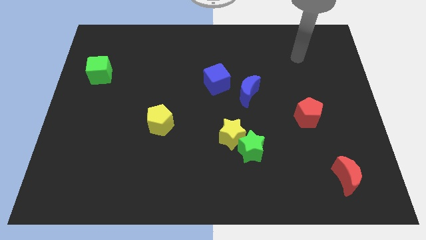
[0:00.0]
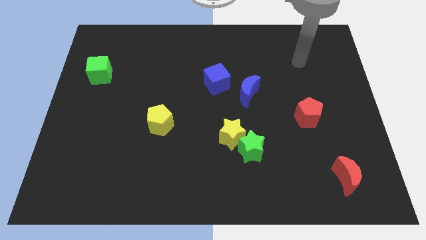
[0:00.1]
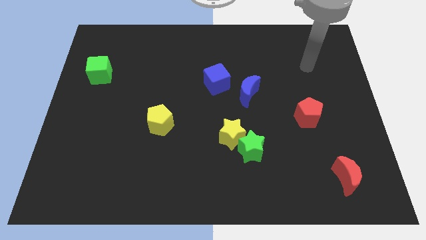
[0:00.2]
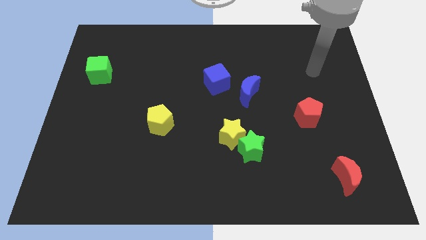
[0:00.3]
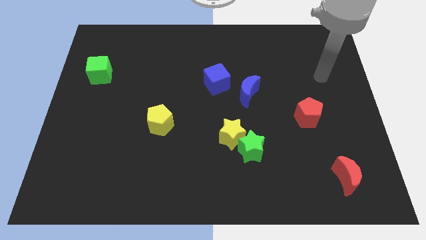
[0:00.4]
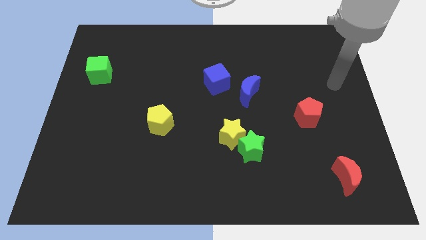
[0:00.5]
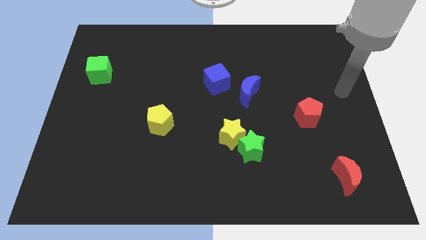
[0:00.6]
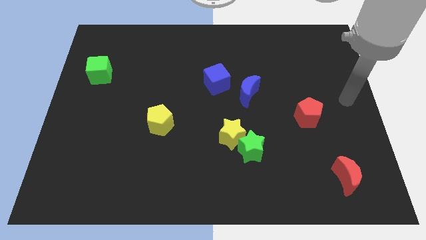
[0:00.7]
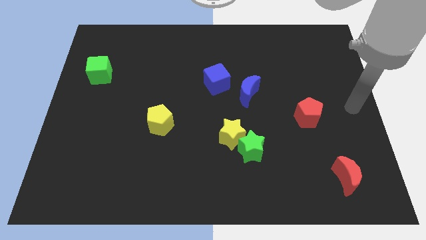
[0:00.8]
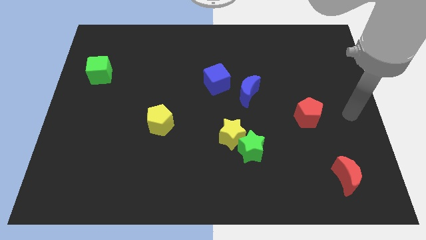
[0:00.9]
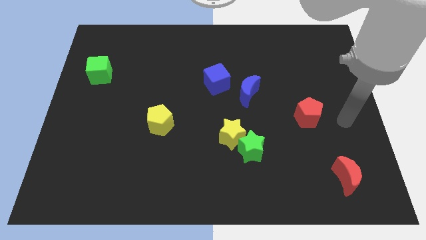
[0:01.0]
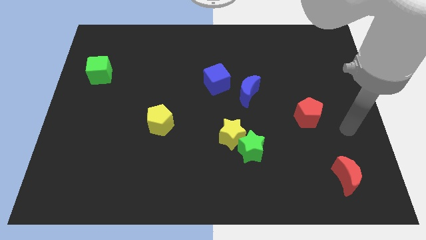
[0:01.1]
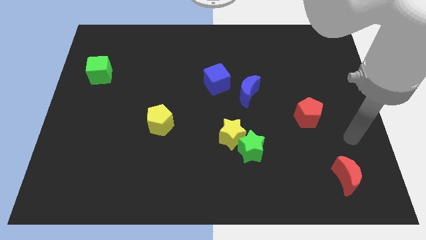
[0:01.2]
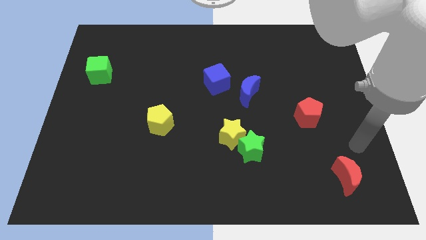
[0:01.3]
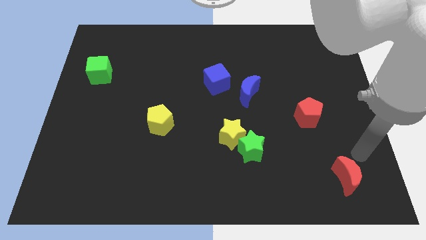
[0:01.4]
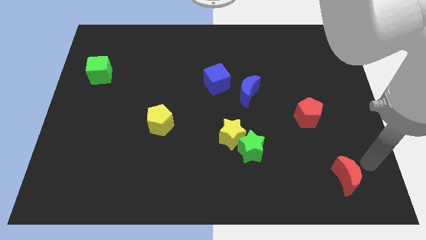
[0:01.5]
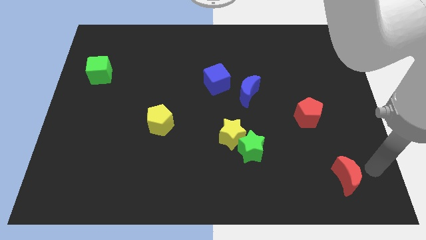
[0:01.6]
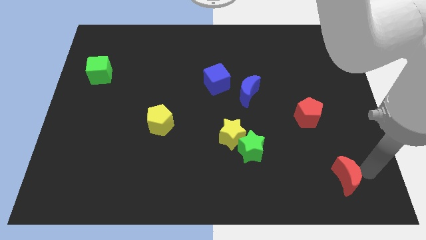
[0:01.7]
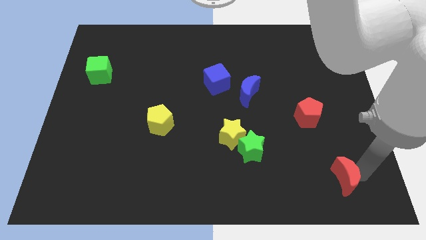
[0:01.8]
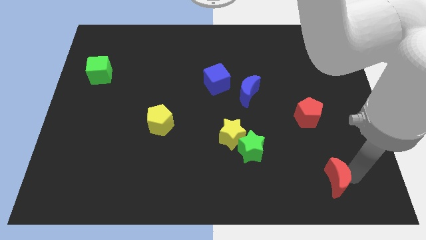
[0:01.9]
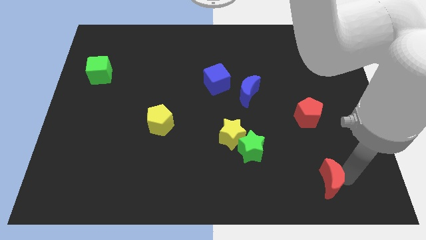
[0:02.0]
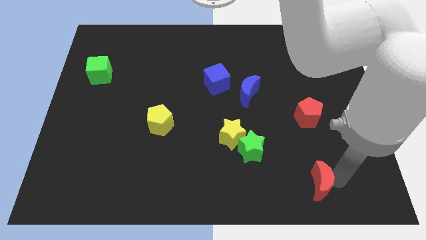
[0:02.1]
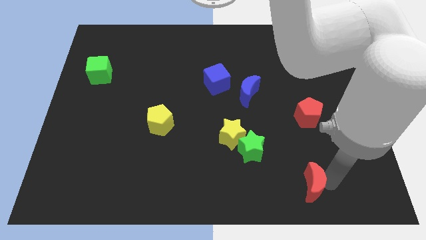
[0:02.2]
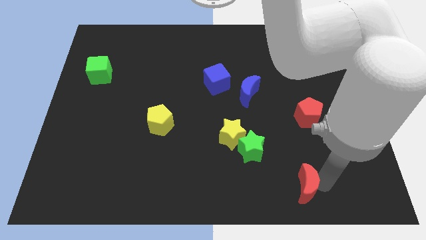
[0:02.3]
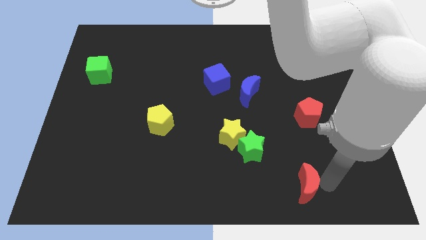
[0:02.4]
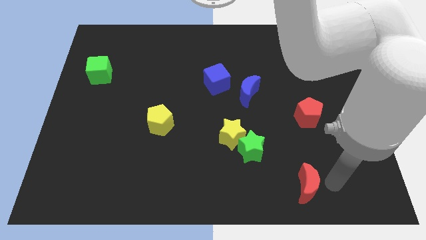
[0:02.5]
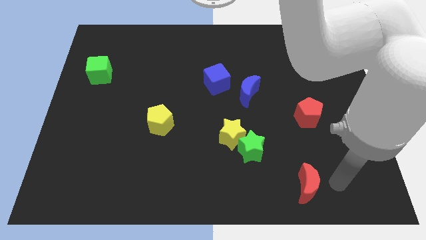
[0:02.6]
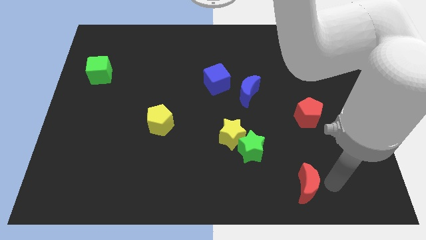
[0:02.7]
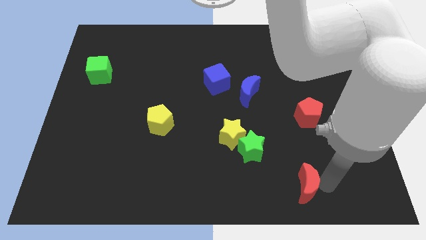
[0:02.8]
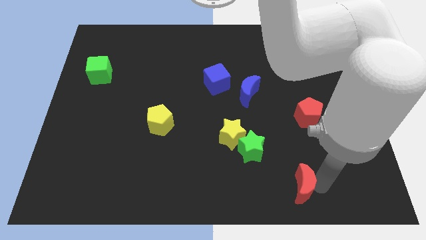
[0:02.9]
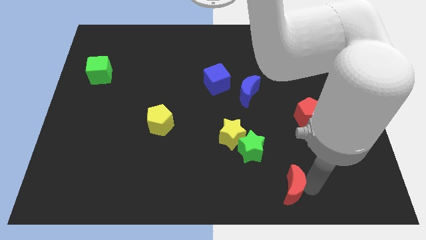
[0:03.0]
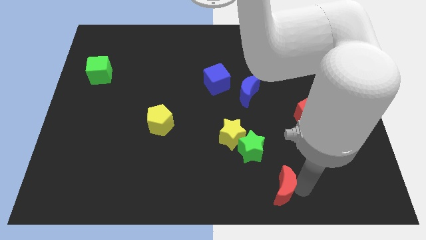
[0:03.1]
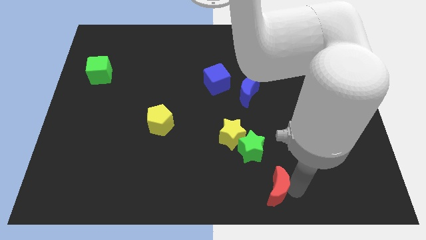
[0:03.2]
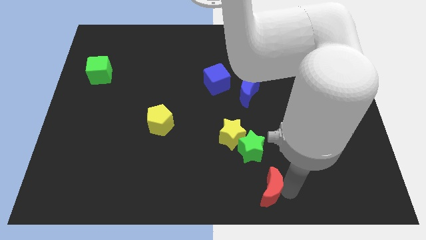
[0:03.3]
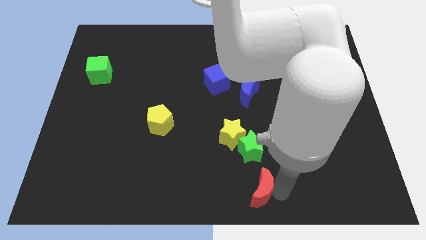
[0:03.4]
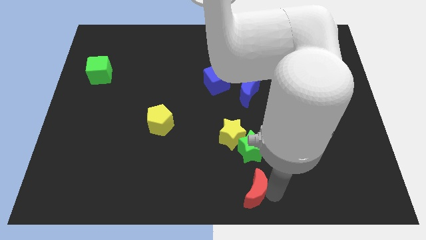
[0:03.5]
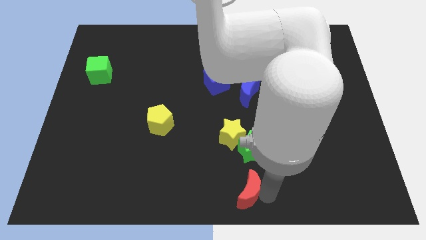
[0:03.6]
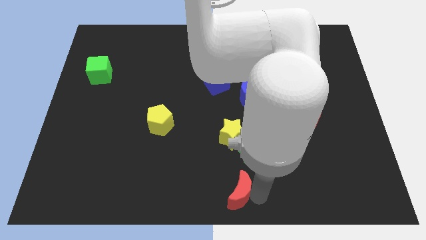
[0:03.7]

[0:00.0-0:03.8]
push the red moon left

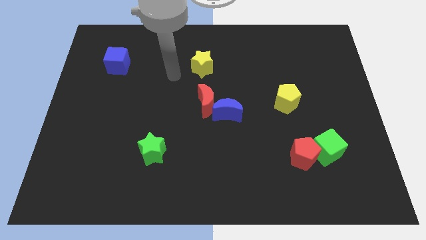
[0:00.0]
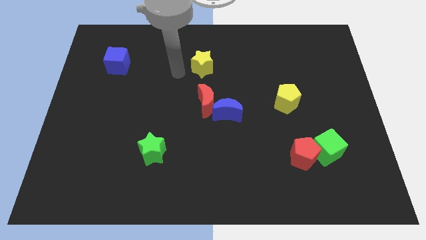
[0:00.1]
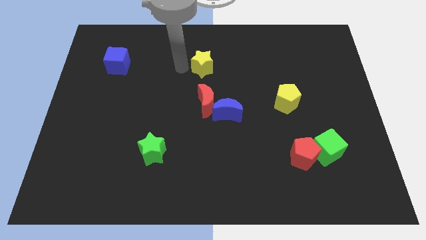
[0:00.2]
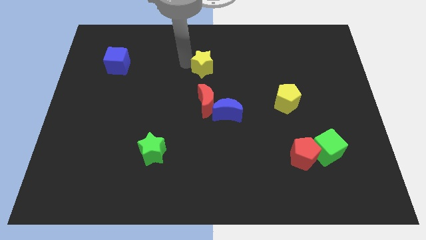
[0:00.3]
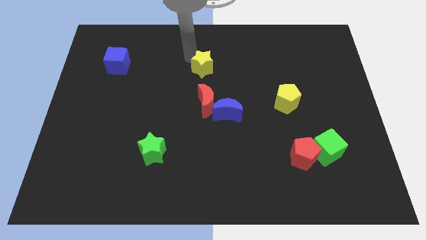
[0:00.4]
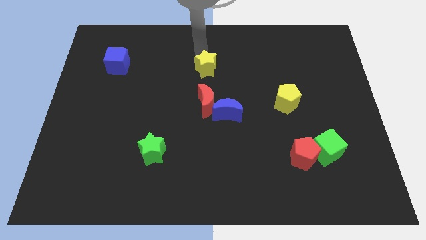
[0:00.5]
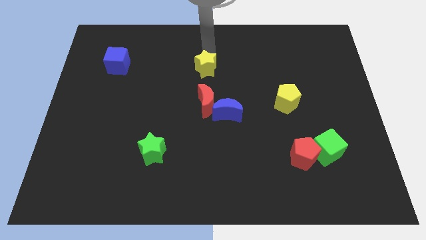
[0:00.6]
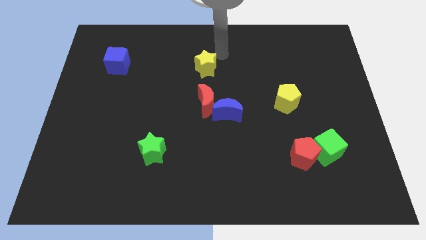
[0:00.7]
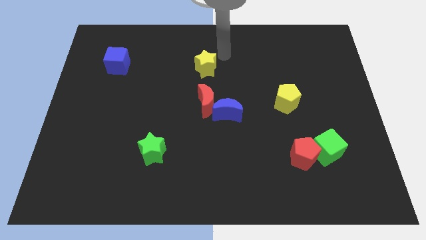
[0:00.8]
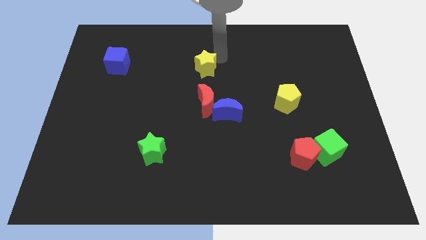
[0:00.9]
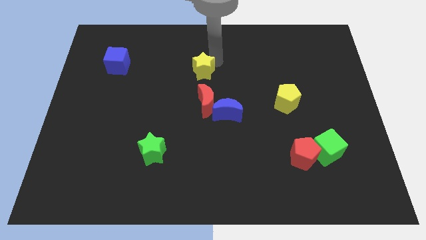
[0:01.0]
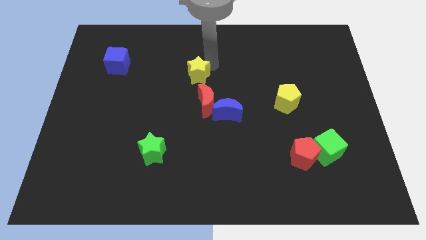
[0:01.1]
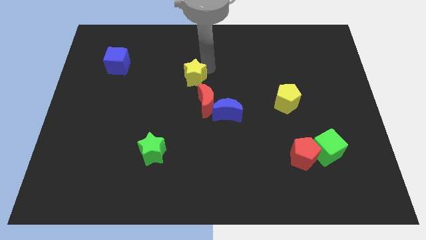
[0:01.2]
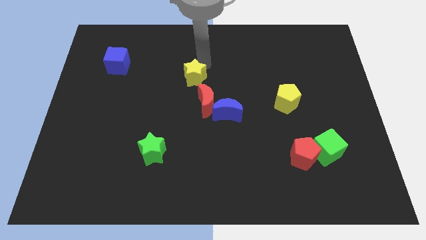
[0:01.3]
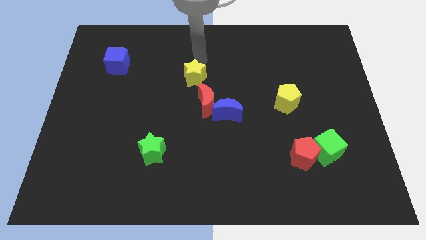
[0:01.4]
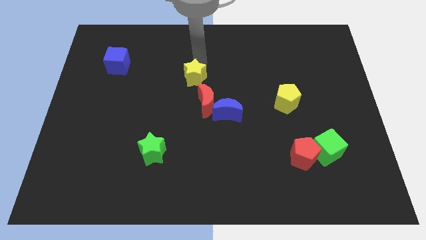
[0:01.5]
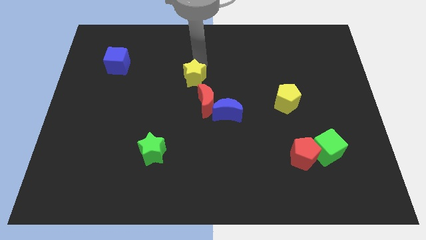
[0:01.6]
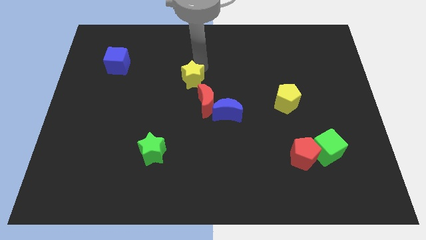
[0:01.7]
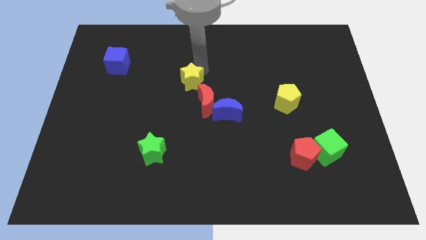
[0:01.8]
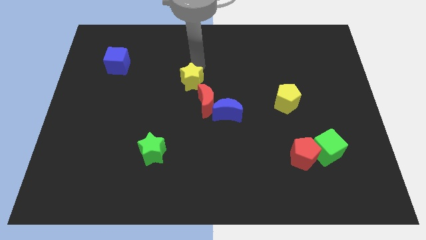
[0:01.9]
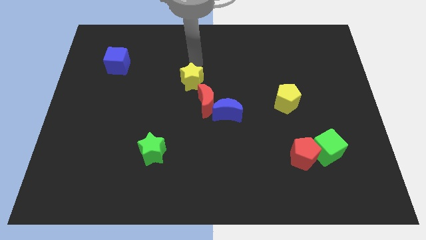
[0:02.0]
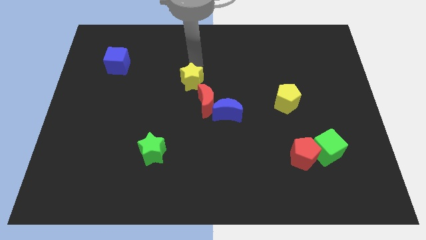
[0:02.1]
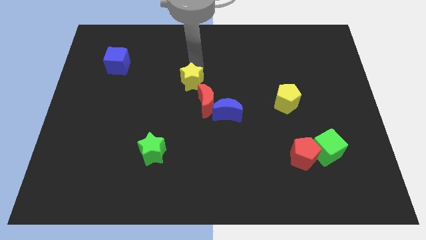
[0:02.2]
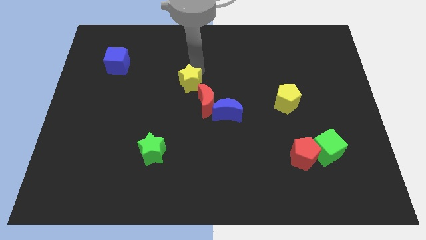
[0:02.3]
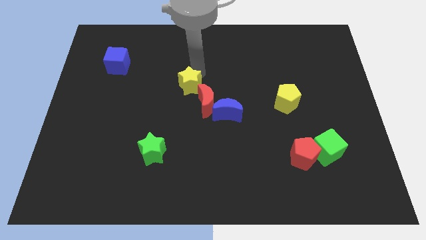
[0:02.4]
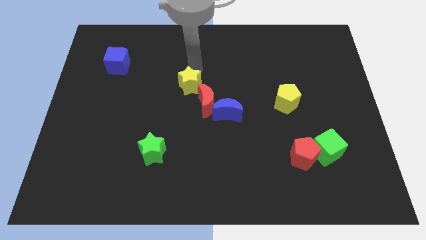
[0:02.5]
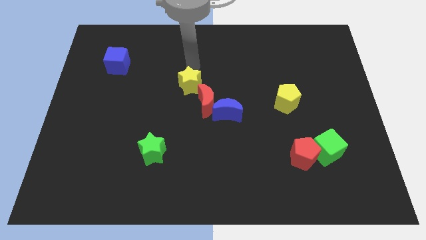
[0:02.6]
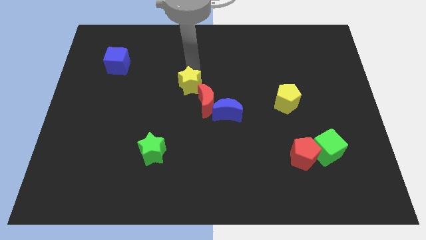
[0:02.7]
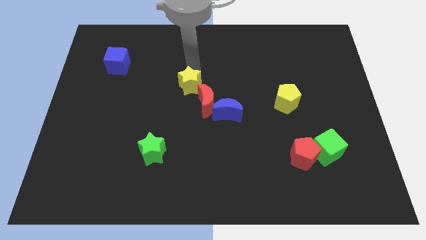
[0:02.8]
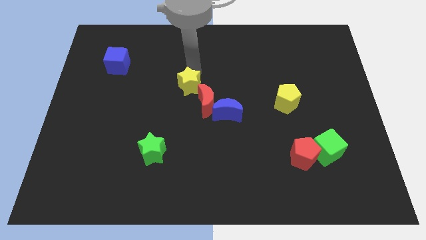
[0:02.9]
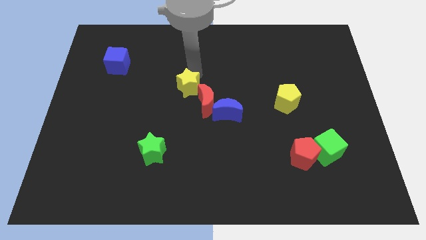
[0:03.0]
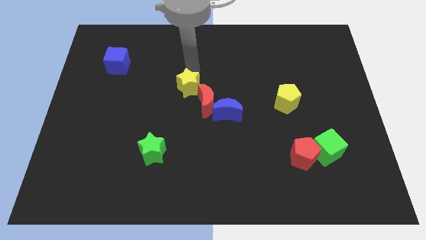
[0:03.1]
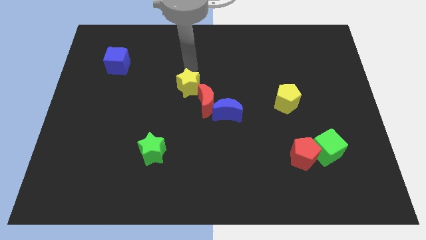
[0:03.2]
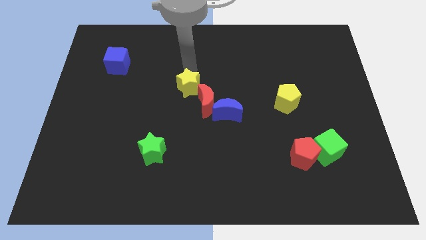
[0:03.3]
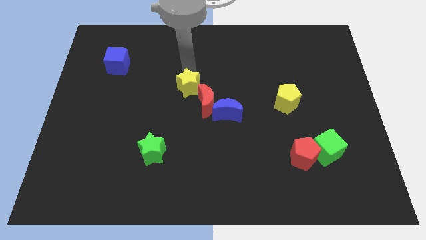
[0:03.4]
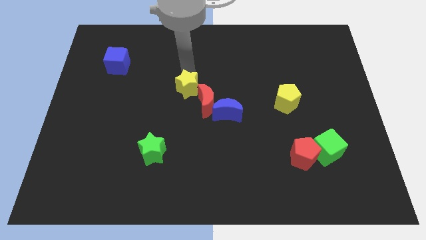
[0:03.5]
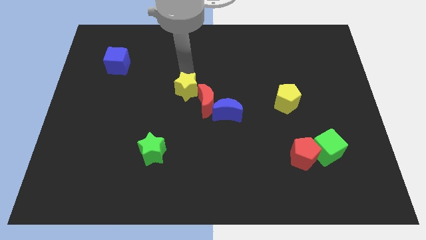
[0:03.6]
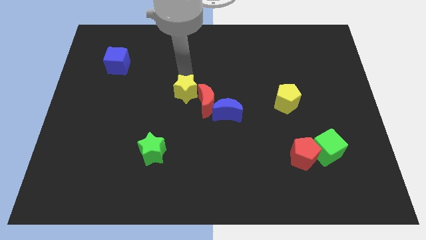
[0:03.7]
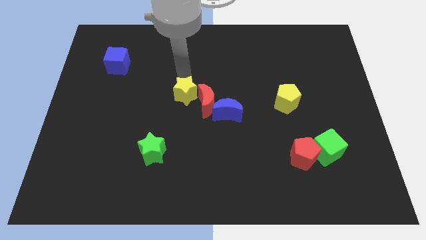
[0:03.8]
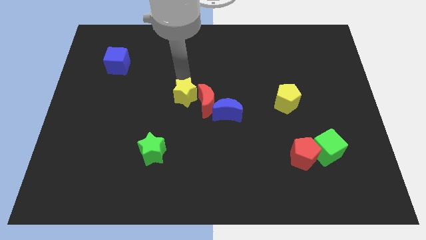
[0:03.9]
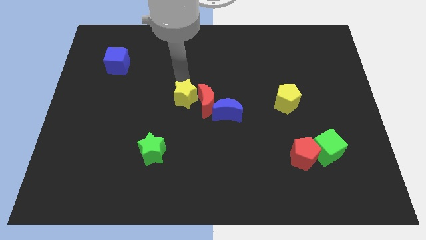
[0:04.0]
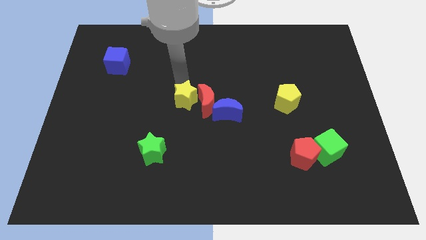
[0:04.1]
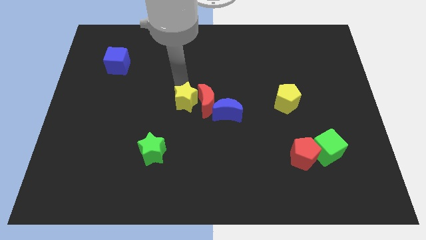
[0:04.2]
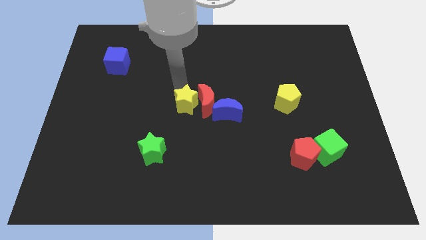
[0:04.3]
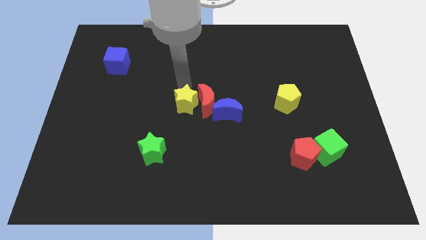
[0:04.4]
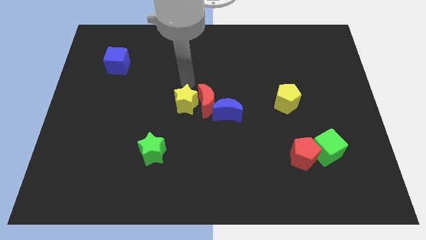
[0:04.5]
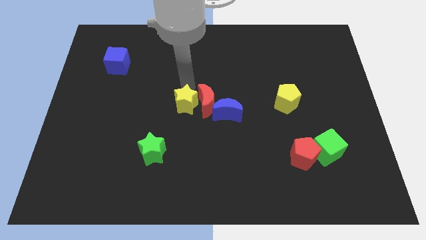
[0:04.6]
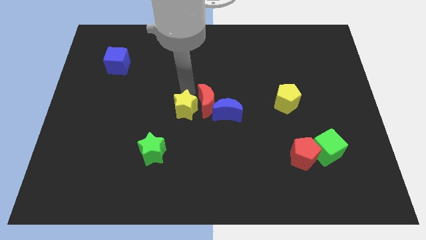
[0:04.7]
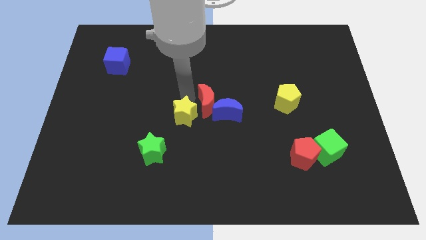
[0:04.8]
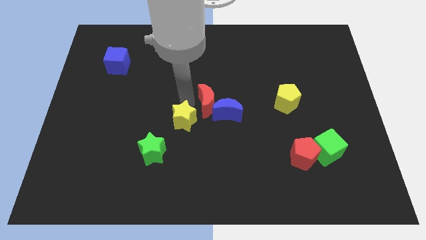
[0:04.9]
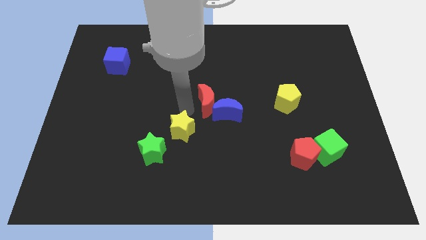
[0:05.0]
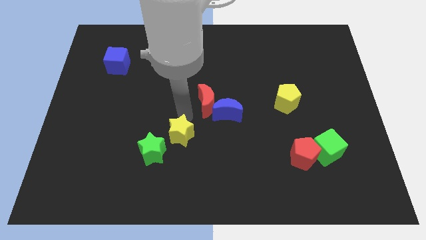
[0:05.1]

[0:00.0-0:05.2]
slide the yellow star downwards
